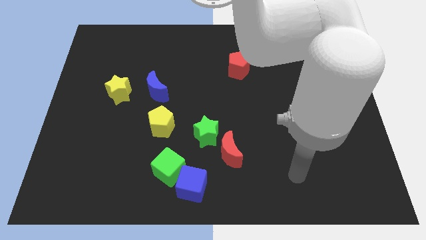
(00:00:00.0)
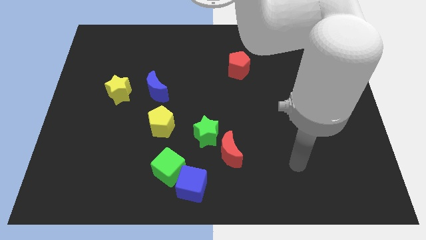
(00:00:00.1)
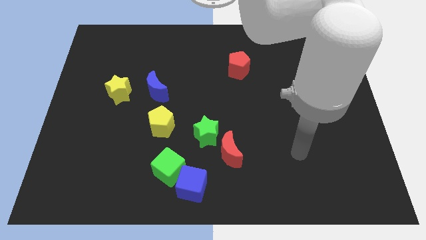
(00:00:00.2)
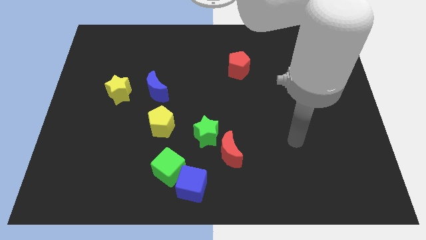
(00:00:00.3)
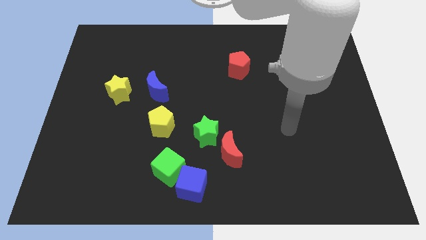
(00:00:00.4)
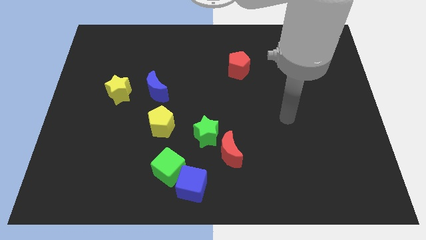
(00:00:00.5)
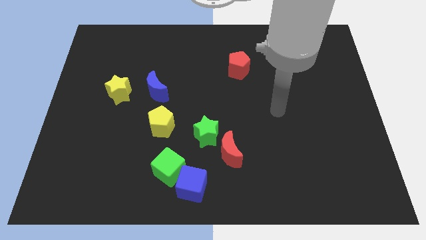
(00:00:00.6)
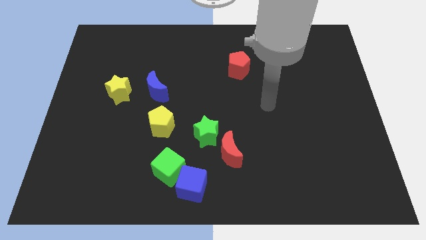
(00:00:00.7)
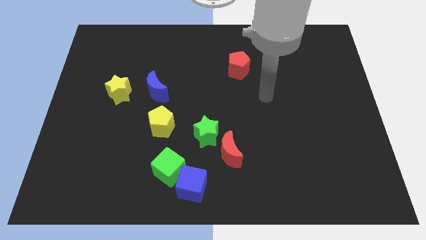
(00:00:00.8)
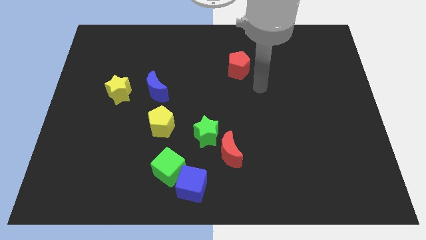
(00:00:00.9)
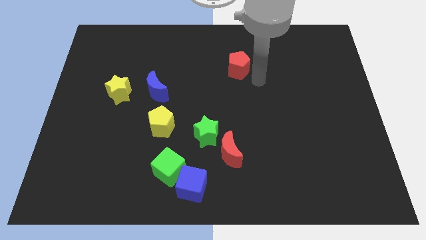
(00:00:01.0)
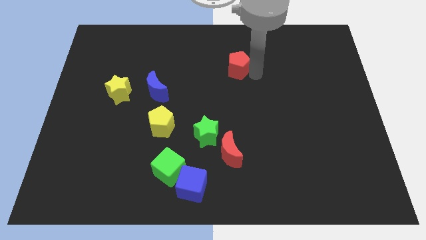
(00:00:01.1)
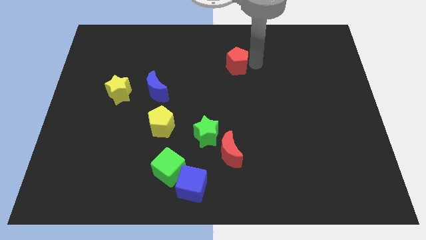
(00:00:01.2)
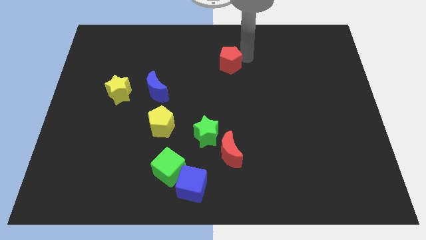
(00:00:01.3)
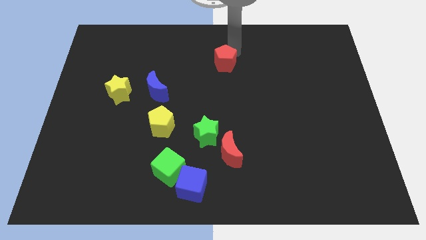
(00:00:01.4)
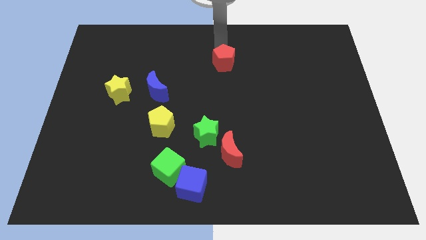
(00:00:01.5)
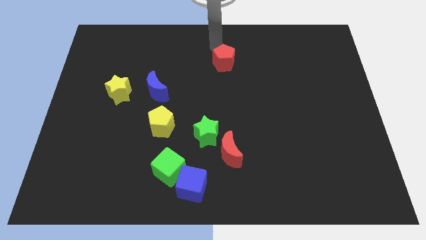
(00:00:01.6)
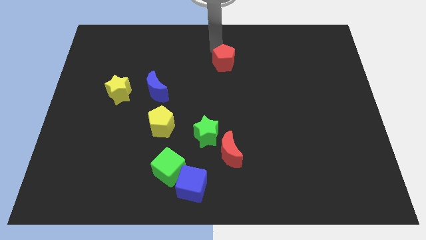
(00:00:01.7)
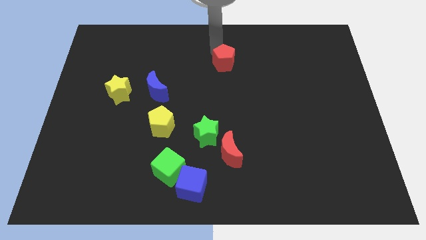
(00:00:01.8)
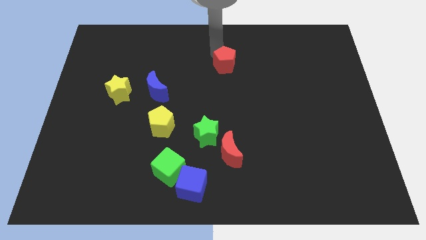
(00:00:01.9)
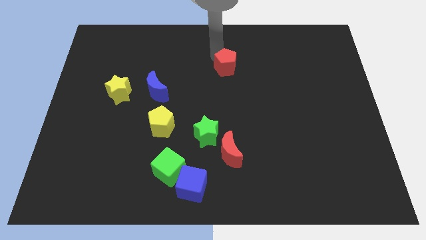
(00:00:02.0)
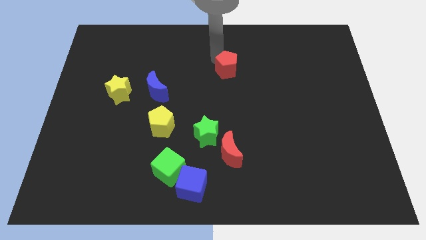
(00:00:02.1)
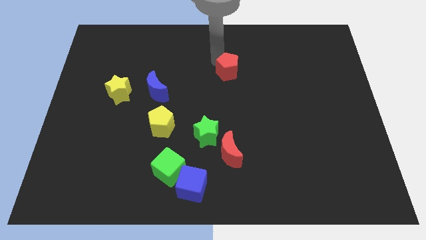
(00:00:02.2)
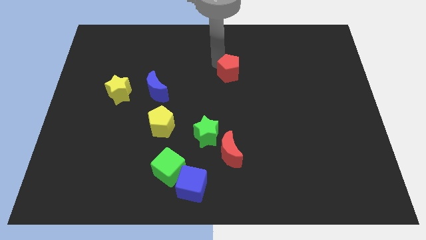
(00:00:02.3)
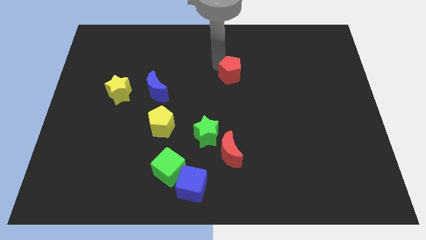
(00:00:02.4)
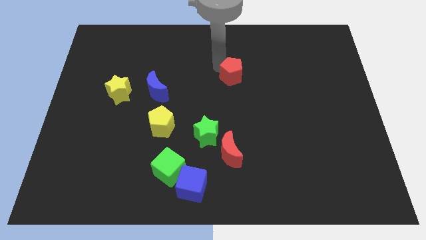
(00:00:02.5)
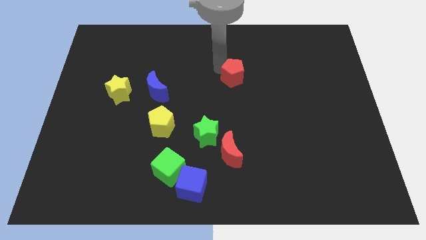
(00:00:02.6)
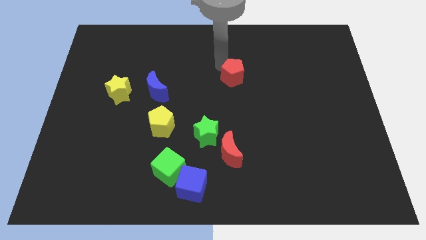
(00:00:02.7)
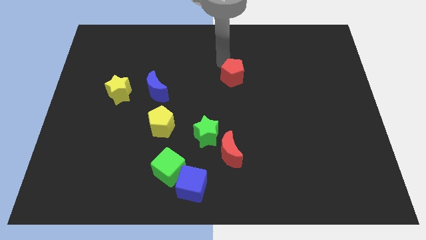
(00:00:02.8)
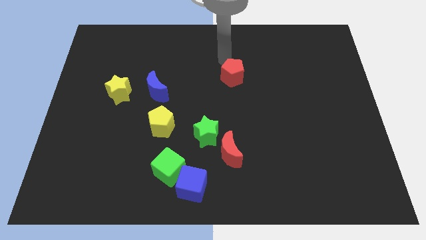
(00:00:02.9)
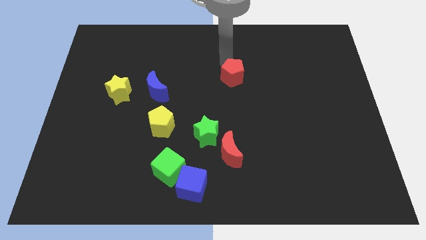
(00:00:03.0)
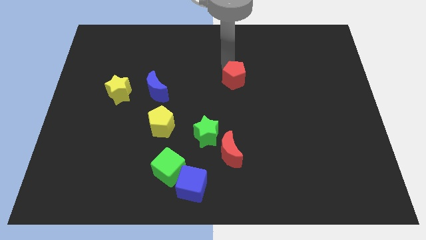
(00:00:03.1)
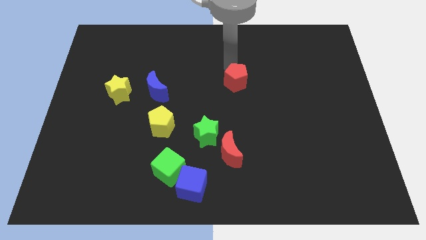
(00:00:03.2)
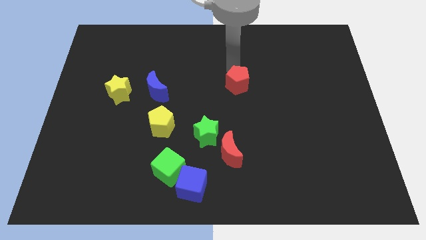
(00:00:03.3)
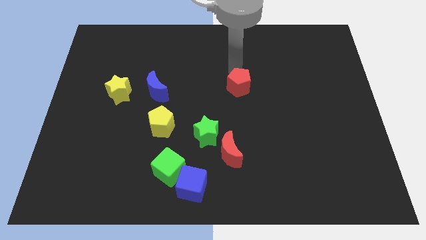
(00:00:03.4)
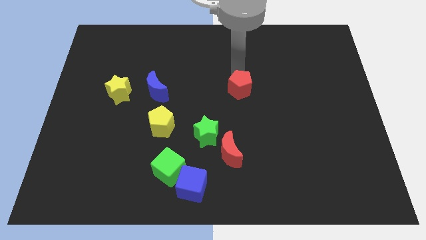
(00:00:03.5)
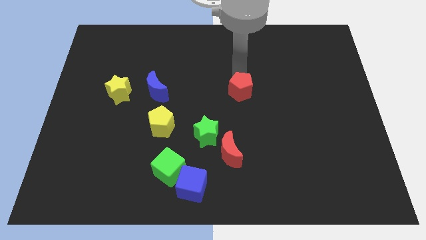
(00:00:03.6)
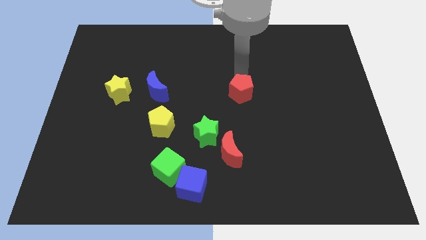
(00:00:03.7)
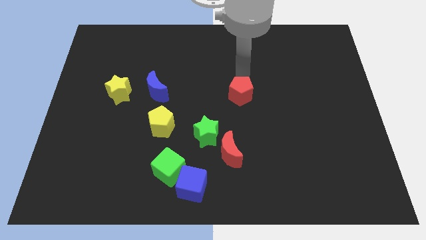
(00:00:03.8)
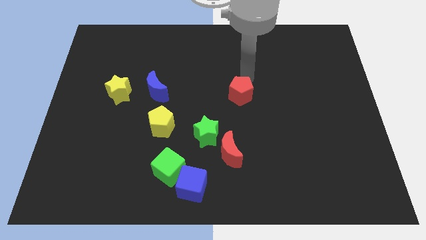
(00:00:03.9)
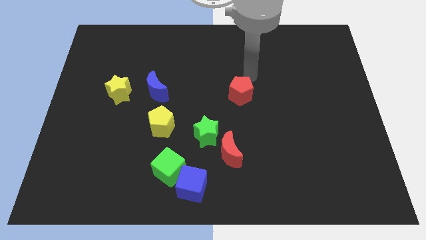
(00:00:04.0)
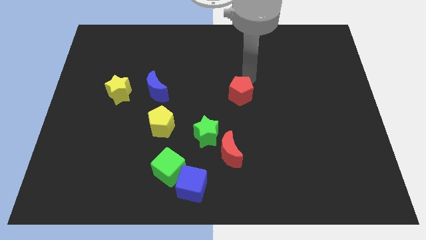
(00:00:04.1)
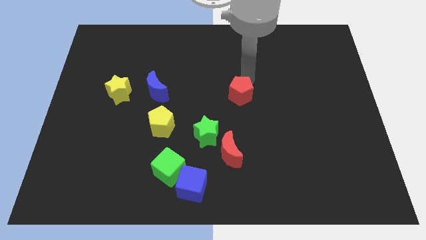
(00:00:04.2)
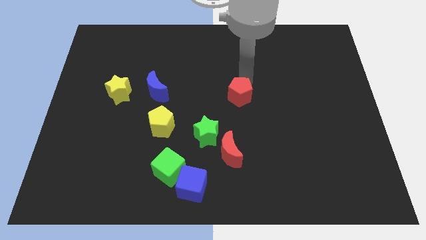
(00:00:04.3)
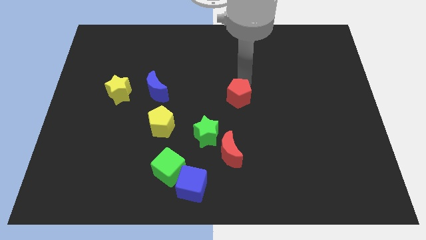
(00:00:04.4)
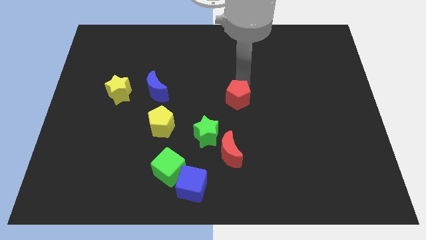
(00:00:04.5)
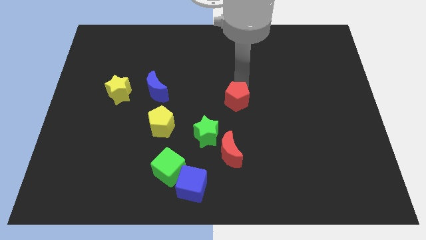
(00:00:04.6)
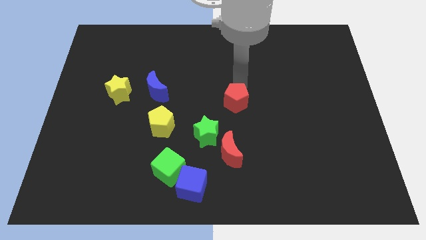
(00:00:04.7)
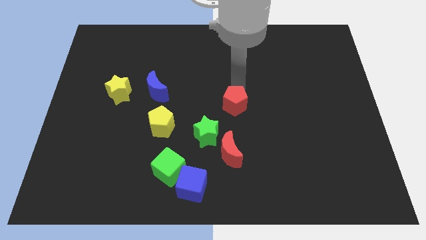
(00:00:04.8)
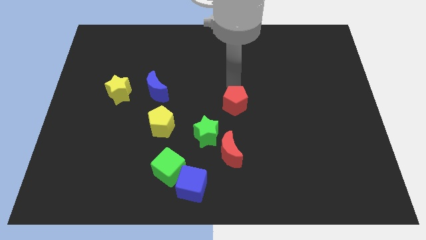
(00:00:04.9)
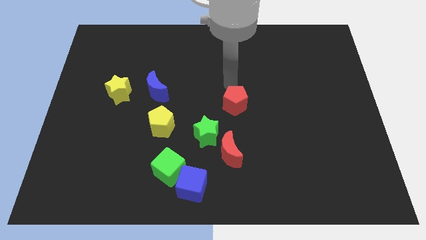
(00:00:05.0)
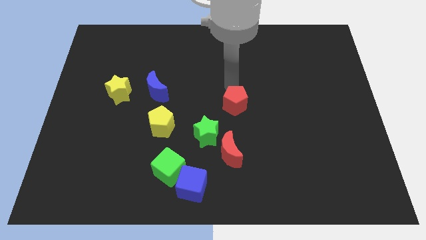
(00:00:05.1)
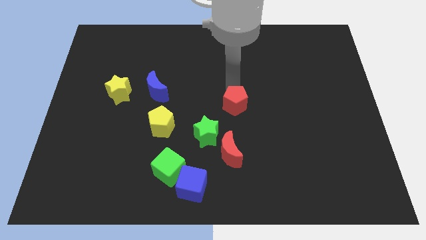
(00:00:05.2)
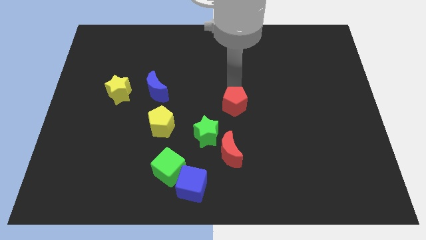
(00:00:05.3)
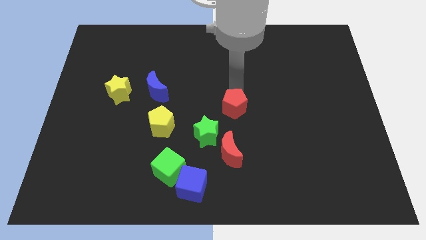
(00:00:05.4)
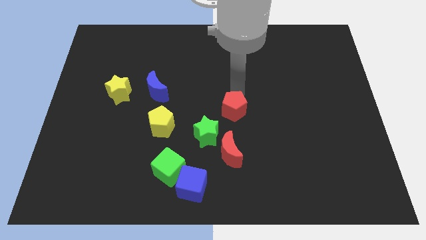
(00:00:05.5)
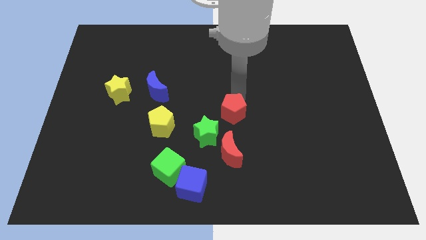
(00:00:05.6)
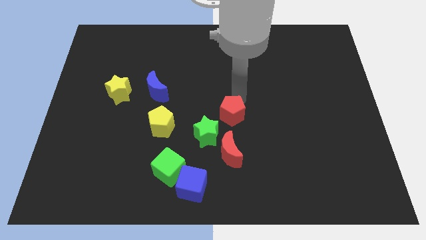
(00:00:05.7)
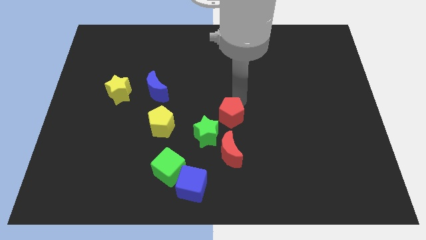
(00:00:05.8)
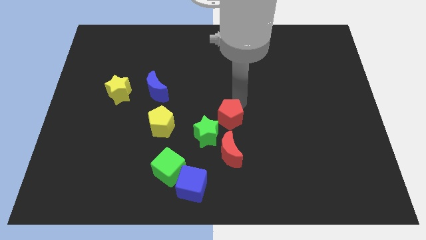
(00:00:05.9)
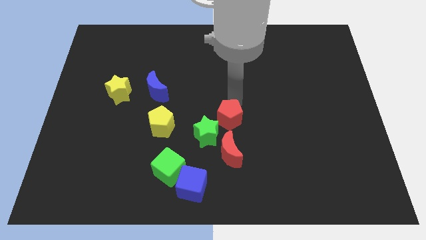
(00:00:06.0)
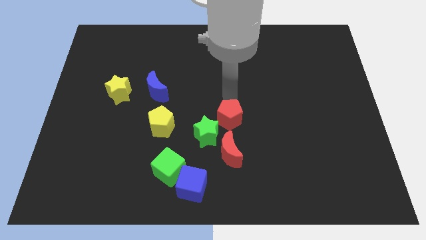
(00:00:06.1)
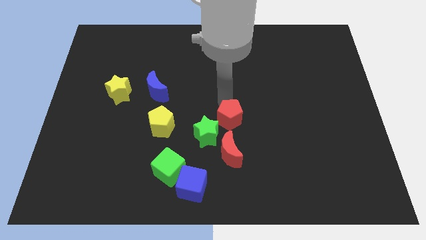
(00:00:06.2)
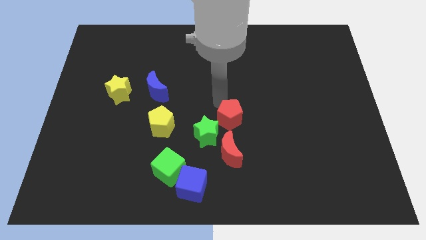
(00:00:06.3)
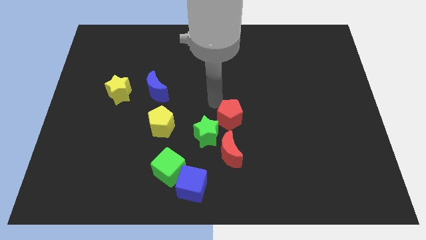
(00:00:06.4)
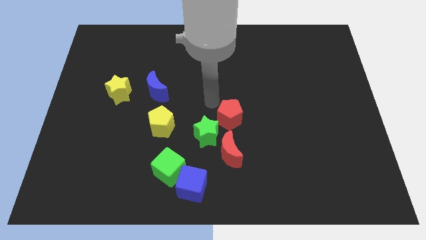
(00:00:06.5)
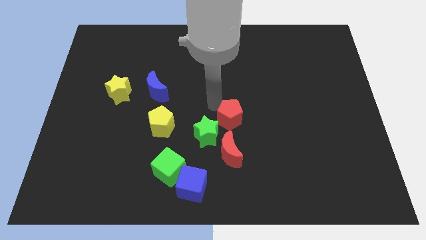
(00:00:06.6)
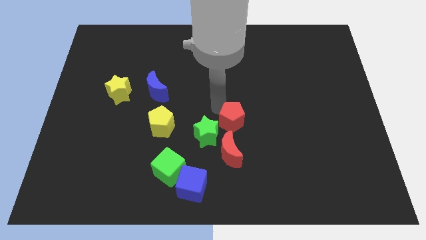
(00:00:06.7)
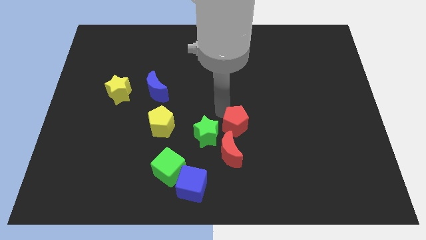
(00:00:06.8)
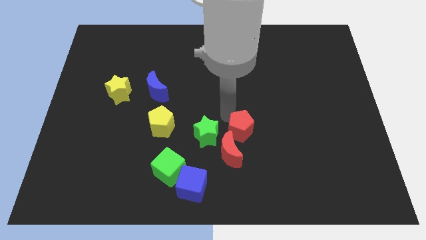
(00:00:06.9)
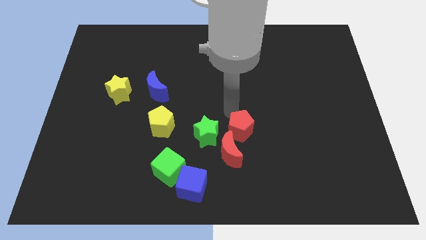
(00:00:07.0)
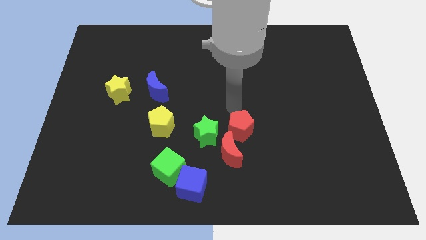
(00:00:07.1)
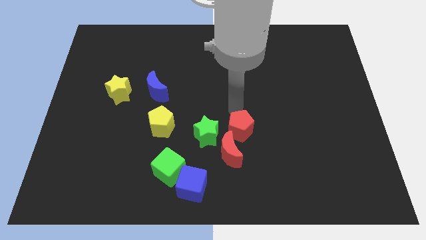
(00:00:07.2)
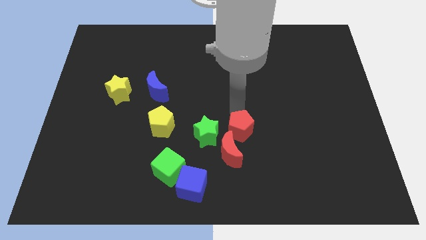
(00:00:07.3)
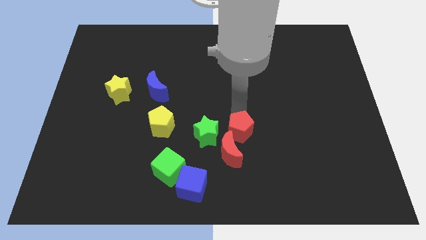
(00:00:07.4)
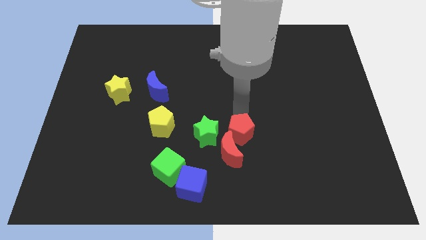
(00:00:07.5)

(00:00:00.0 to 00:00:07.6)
move the red pentagon downwards

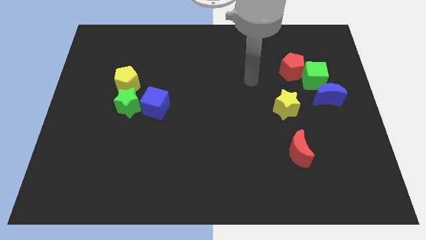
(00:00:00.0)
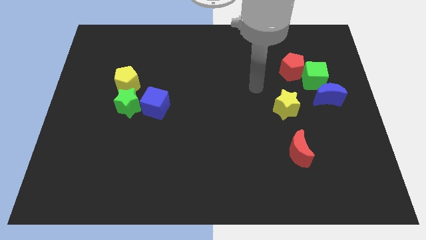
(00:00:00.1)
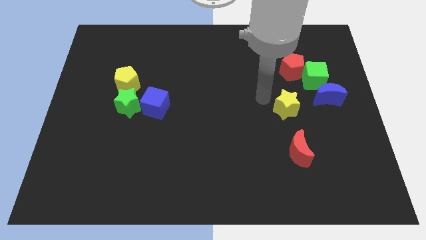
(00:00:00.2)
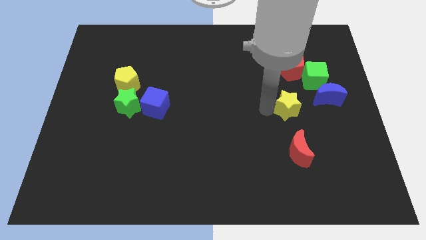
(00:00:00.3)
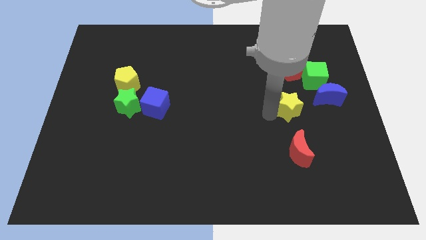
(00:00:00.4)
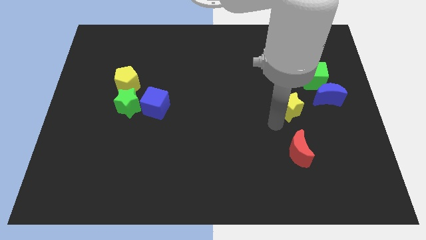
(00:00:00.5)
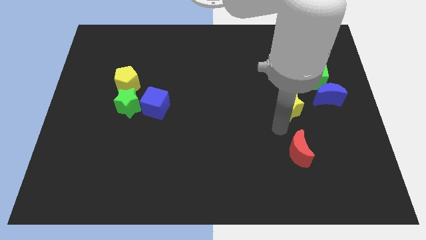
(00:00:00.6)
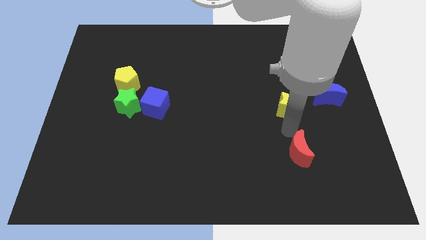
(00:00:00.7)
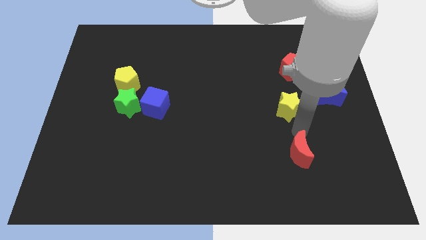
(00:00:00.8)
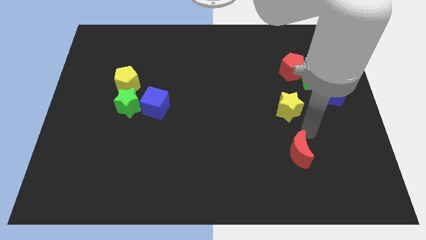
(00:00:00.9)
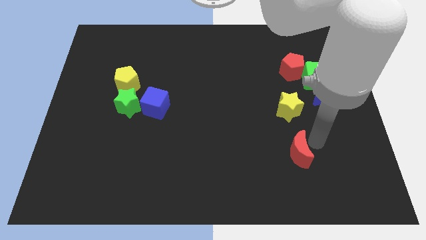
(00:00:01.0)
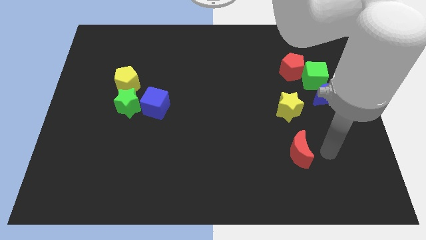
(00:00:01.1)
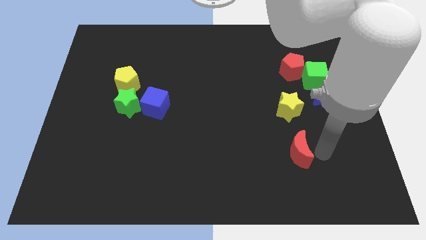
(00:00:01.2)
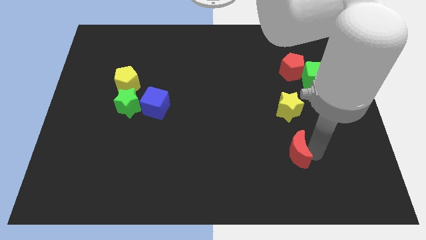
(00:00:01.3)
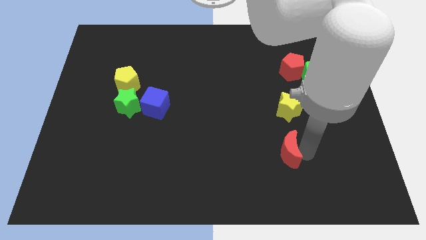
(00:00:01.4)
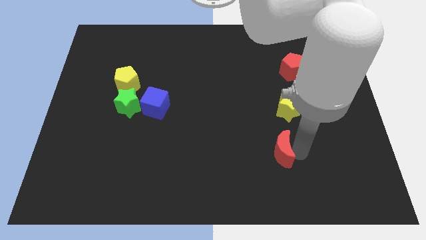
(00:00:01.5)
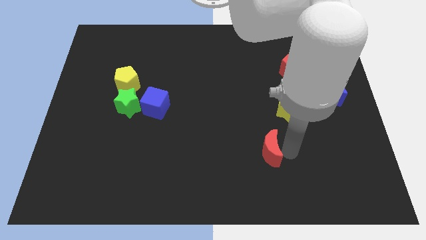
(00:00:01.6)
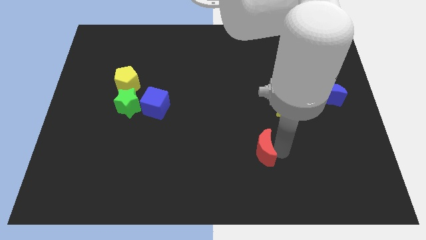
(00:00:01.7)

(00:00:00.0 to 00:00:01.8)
move the red moon to the left a little bit
